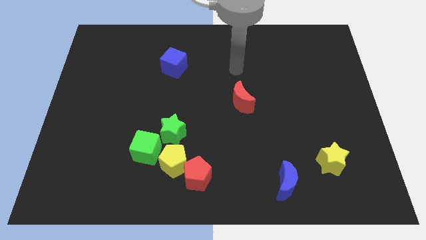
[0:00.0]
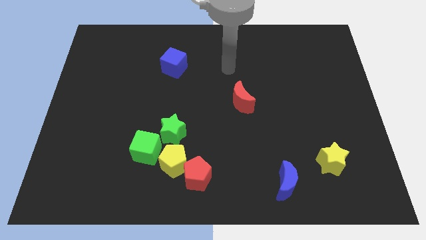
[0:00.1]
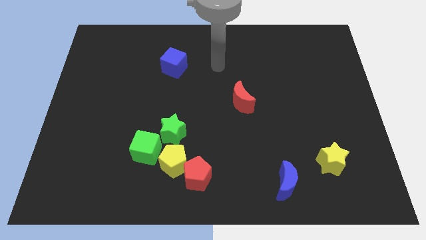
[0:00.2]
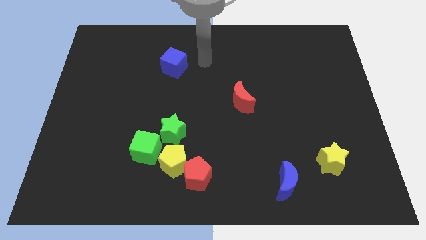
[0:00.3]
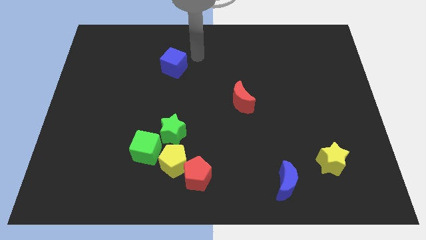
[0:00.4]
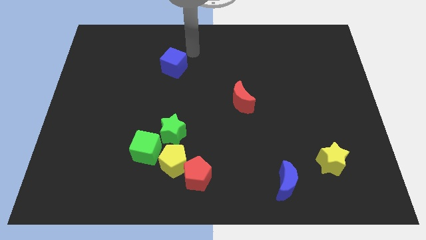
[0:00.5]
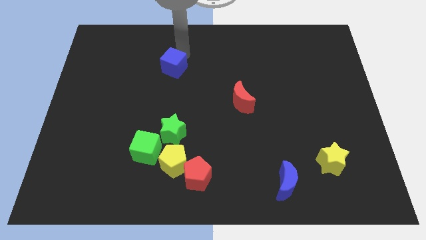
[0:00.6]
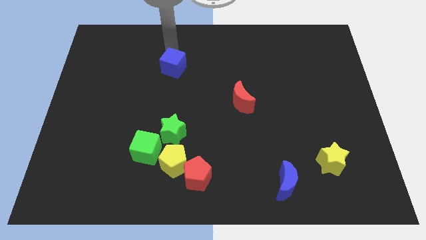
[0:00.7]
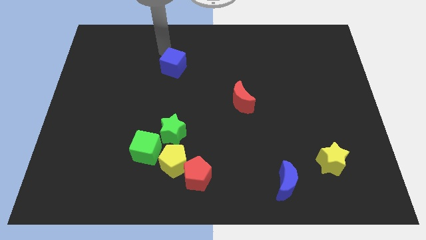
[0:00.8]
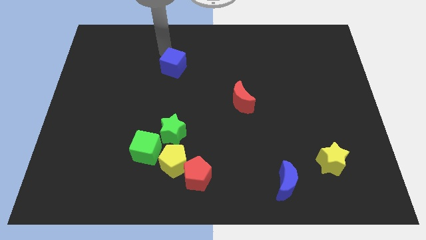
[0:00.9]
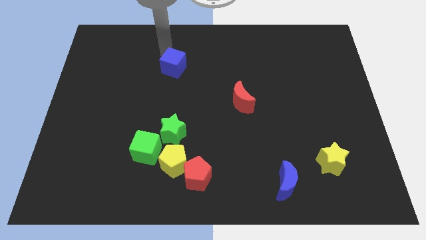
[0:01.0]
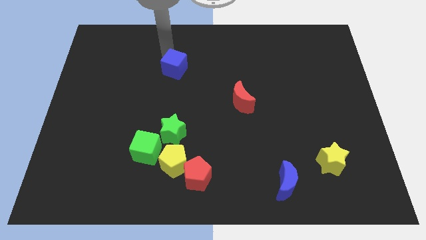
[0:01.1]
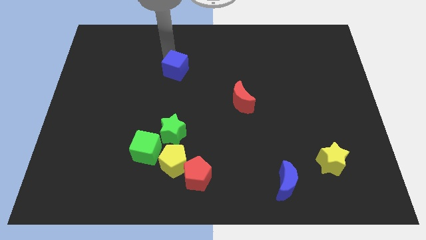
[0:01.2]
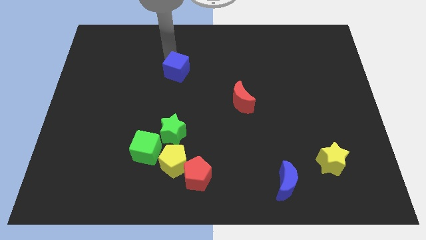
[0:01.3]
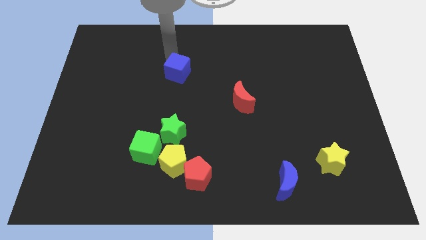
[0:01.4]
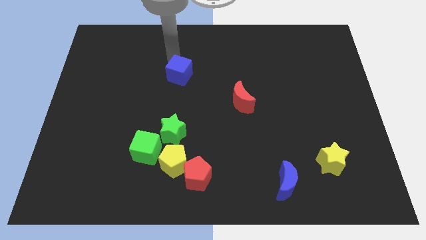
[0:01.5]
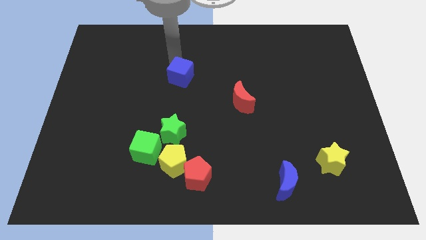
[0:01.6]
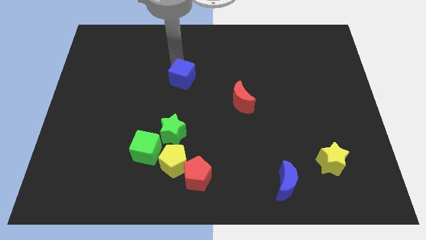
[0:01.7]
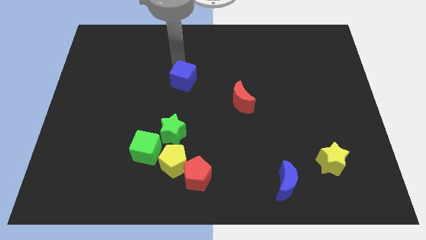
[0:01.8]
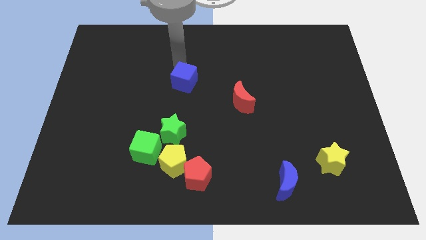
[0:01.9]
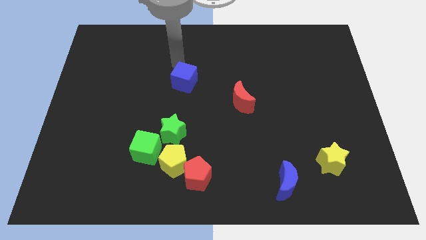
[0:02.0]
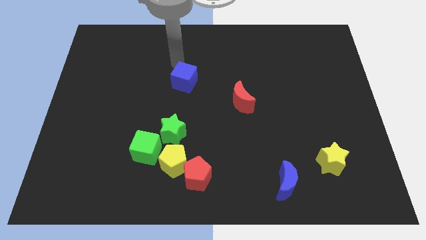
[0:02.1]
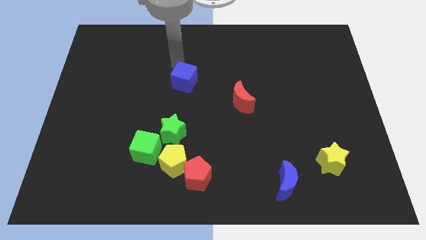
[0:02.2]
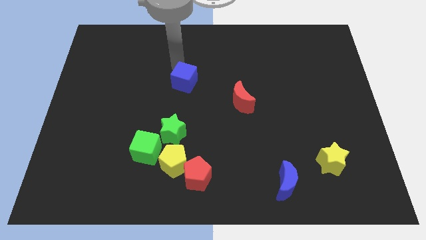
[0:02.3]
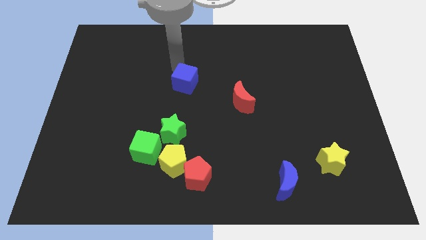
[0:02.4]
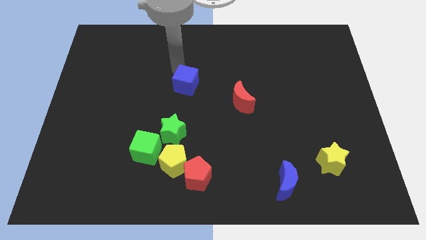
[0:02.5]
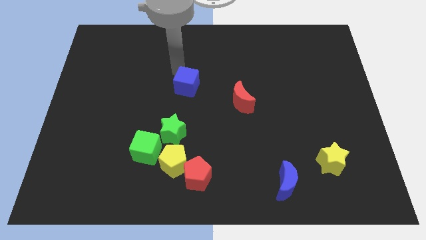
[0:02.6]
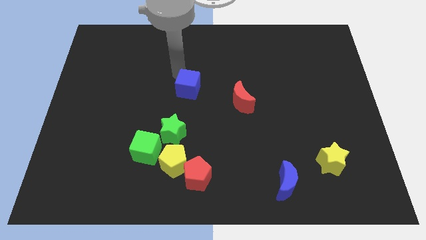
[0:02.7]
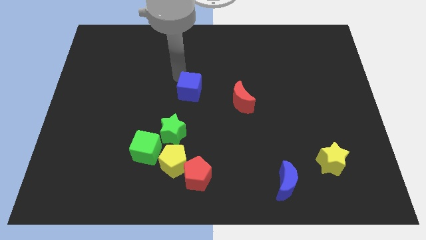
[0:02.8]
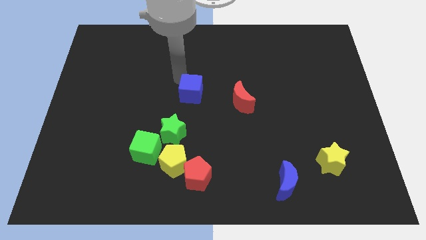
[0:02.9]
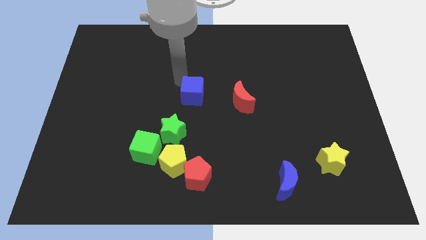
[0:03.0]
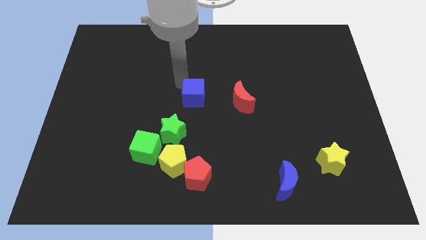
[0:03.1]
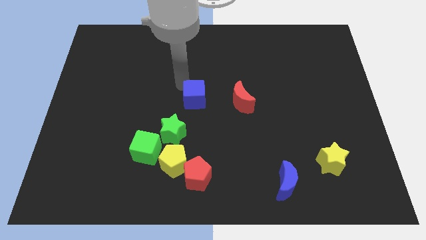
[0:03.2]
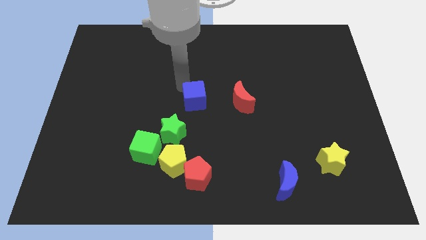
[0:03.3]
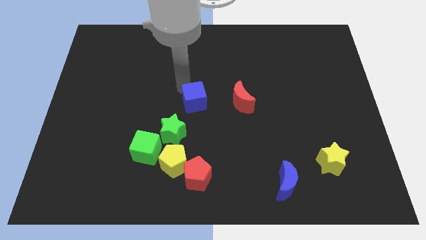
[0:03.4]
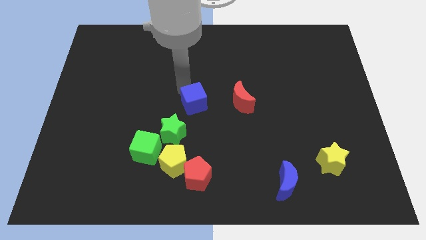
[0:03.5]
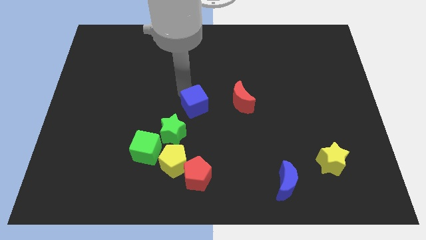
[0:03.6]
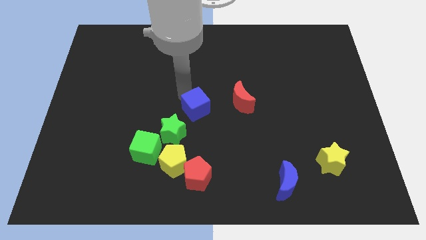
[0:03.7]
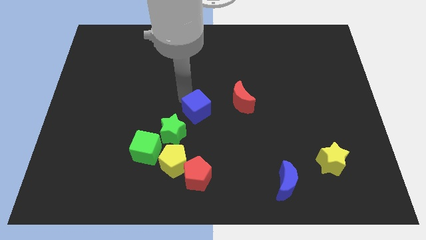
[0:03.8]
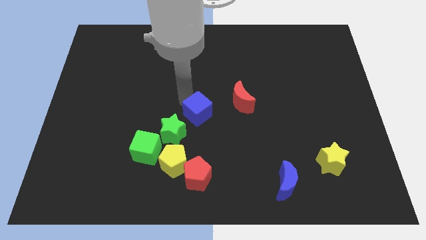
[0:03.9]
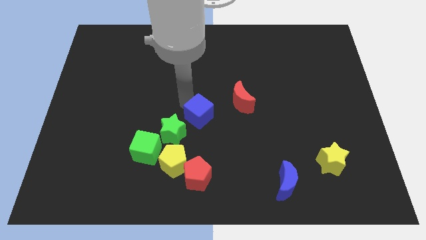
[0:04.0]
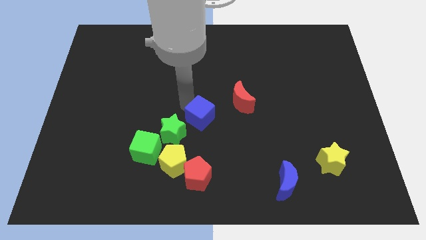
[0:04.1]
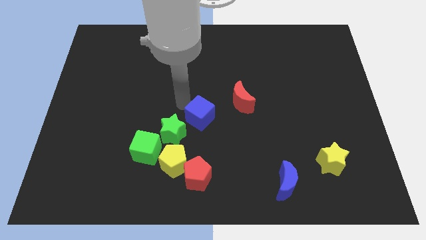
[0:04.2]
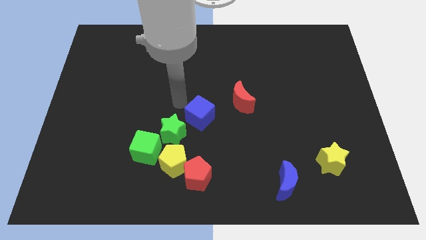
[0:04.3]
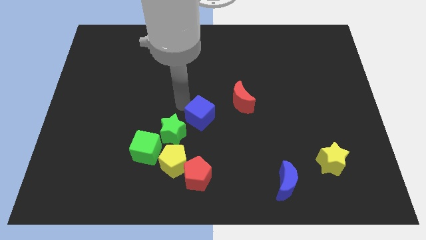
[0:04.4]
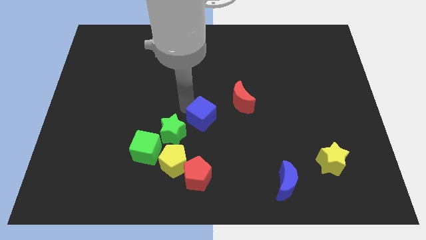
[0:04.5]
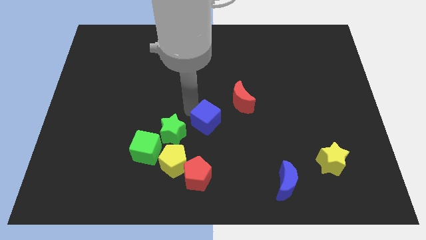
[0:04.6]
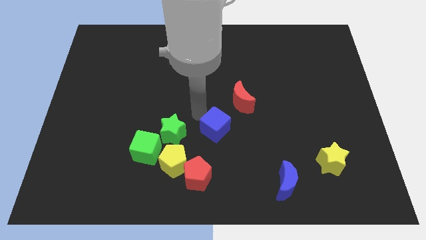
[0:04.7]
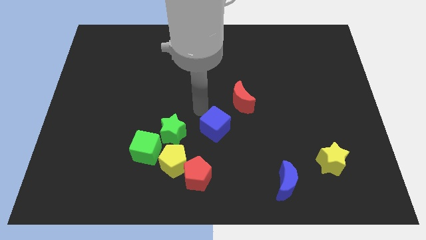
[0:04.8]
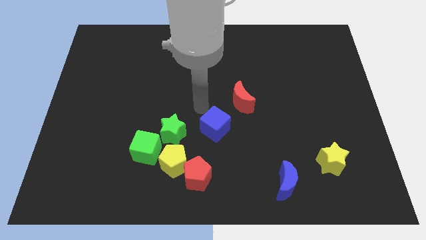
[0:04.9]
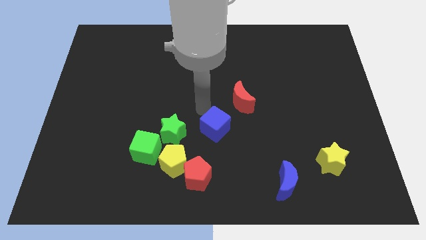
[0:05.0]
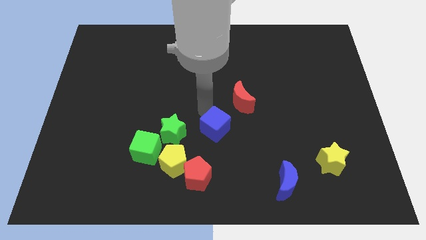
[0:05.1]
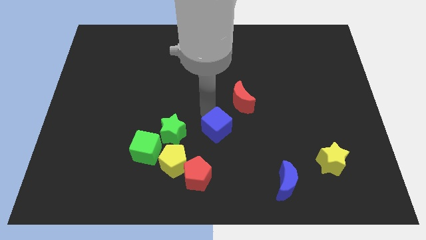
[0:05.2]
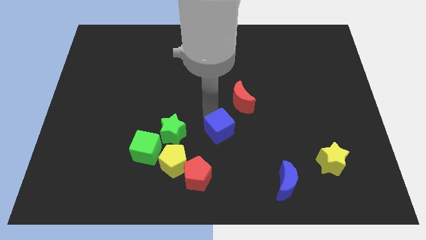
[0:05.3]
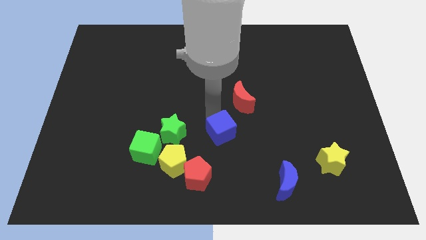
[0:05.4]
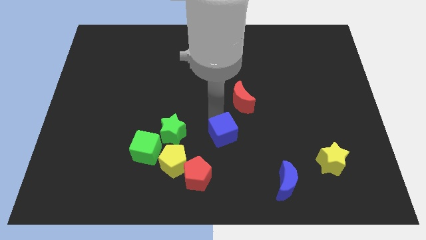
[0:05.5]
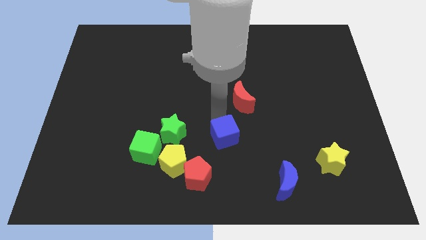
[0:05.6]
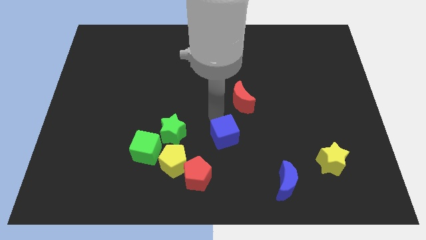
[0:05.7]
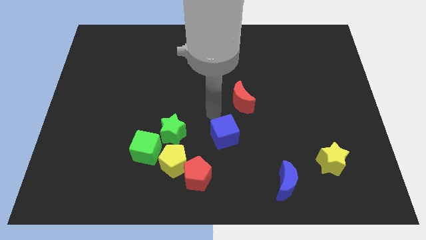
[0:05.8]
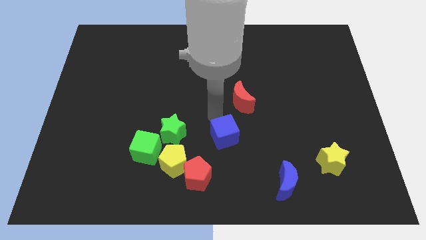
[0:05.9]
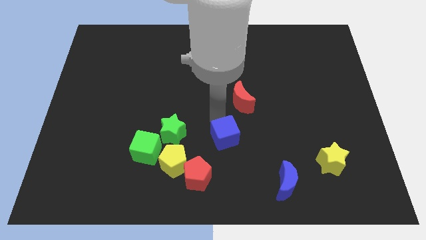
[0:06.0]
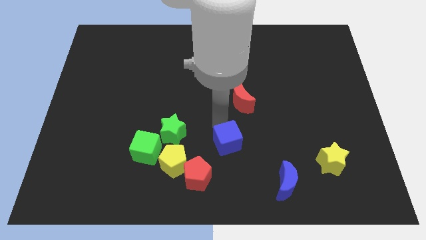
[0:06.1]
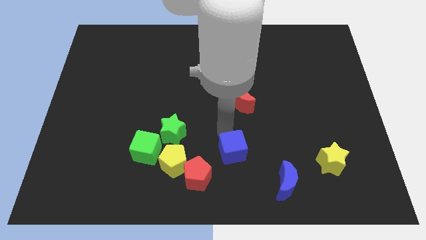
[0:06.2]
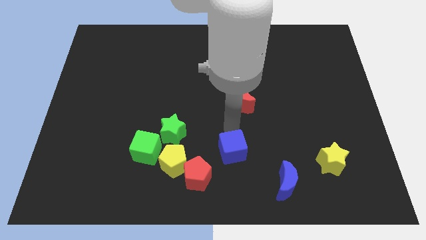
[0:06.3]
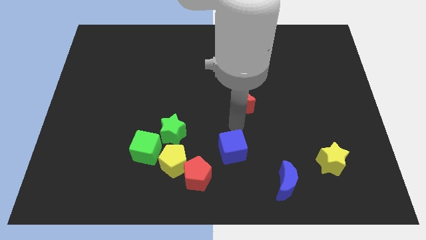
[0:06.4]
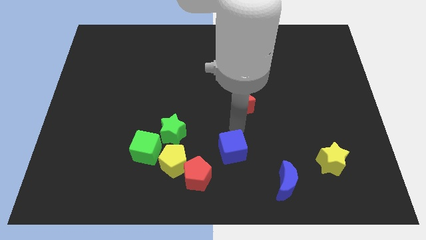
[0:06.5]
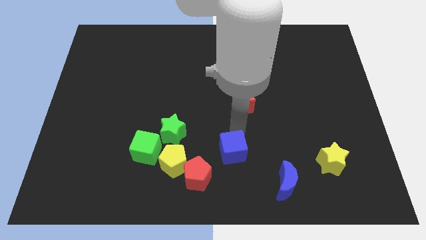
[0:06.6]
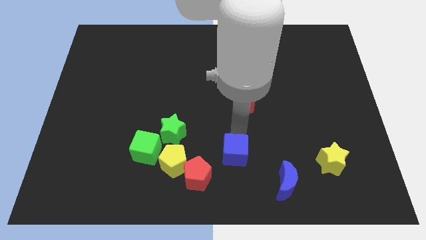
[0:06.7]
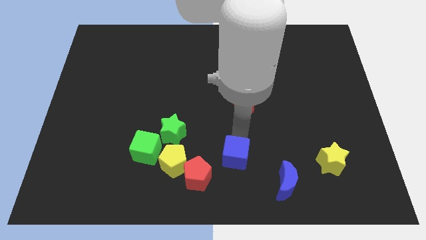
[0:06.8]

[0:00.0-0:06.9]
push the blue cube to the bottom side
